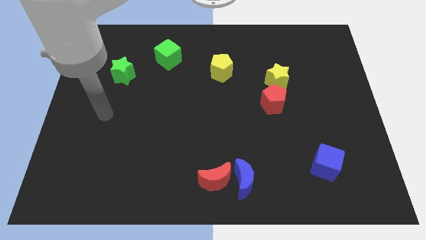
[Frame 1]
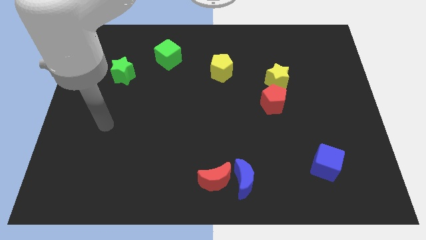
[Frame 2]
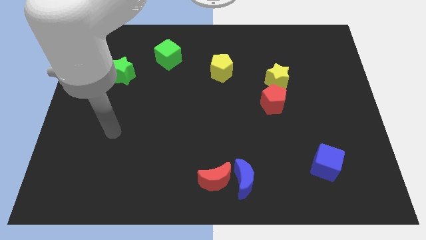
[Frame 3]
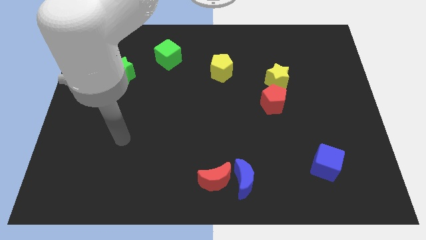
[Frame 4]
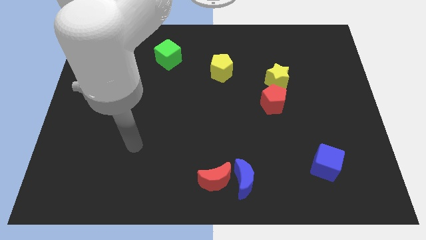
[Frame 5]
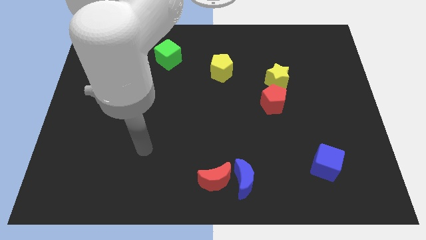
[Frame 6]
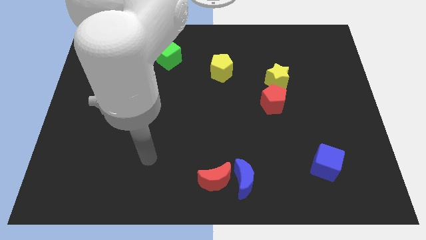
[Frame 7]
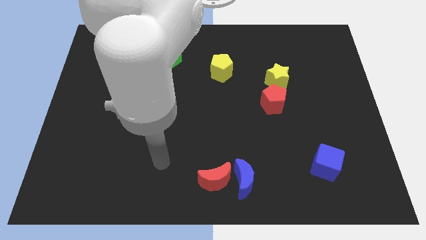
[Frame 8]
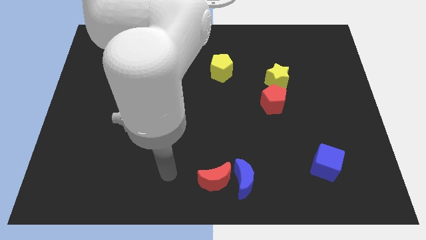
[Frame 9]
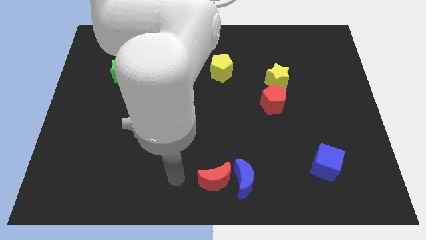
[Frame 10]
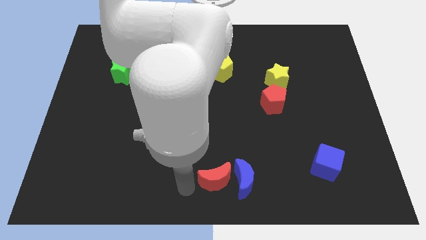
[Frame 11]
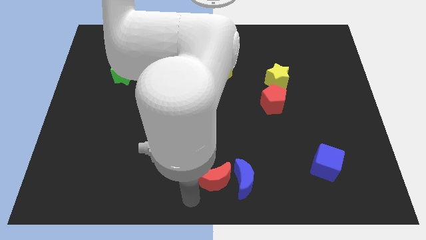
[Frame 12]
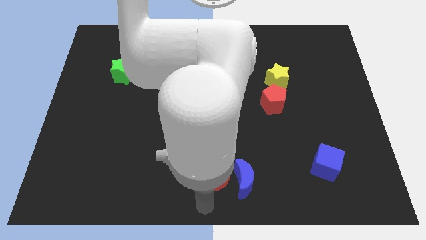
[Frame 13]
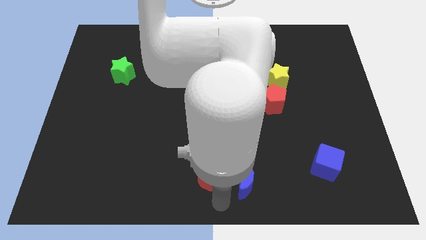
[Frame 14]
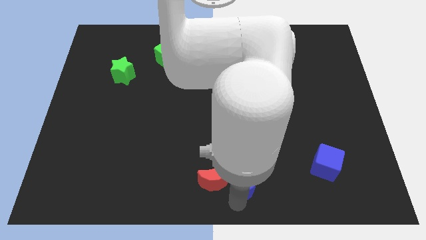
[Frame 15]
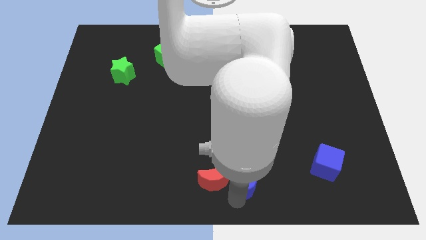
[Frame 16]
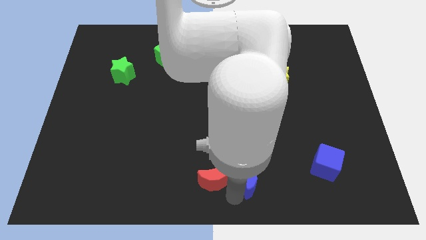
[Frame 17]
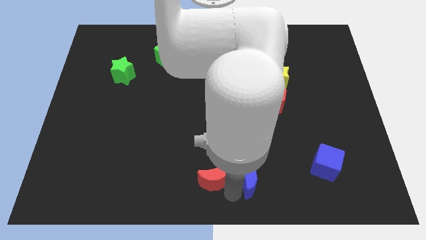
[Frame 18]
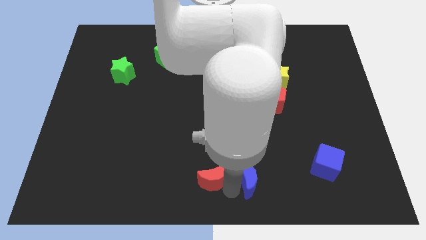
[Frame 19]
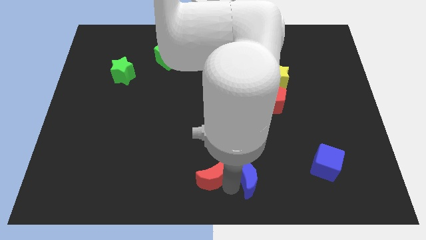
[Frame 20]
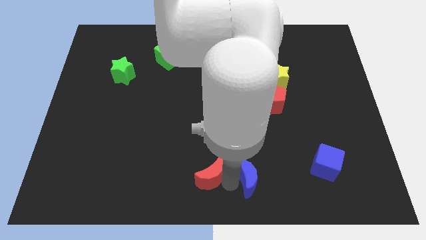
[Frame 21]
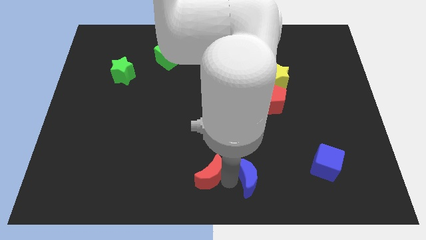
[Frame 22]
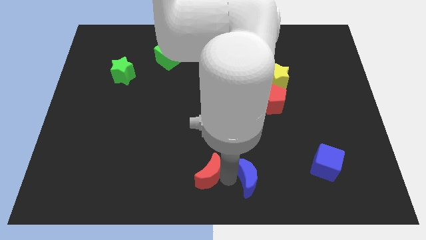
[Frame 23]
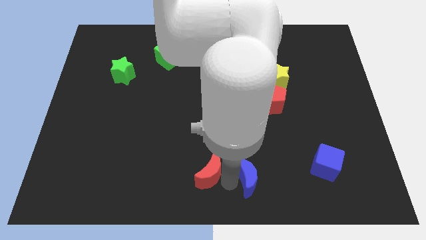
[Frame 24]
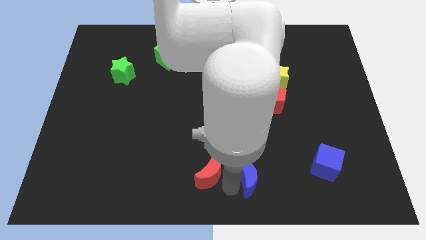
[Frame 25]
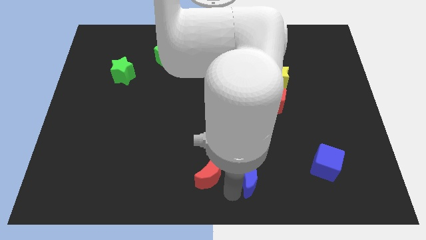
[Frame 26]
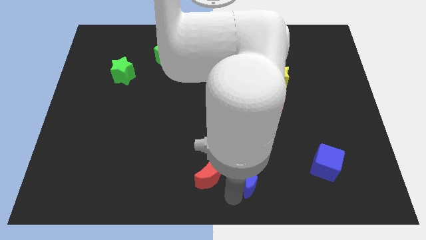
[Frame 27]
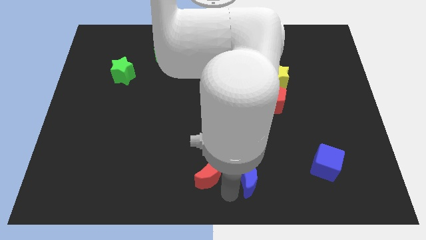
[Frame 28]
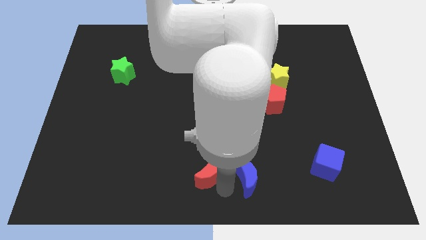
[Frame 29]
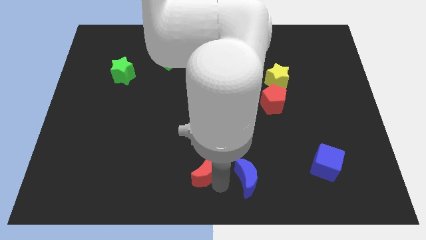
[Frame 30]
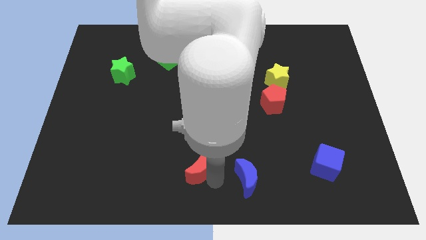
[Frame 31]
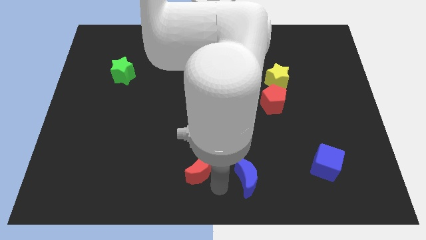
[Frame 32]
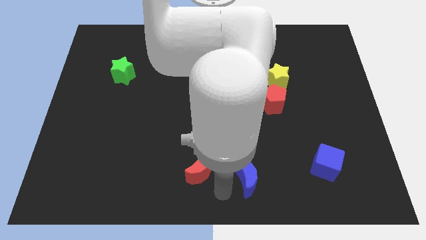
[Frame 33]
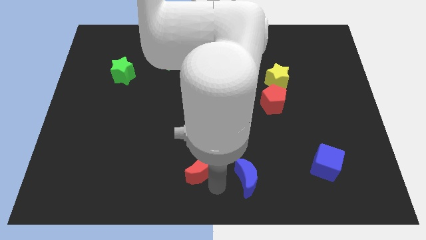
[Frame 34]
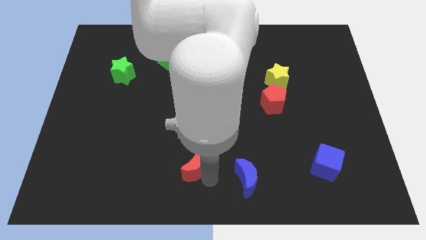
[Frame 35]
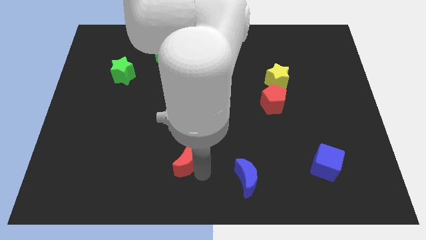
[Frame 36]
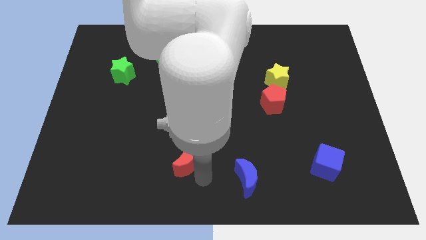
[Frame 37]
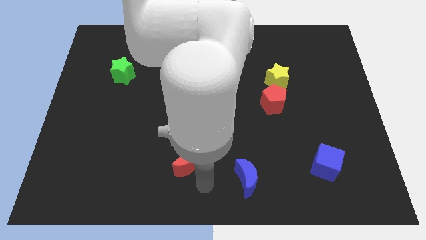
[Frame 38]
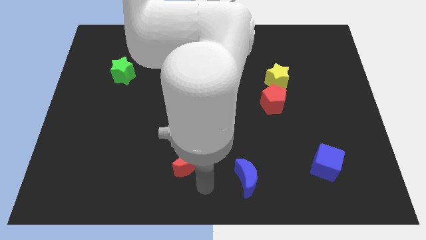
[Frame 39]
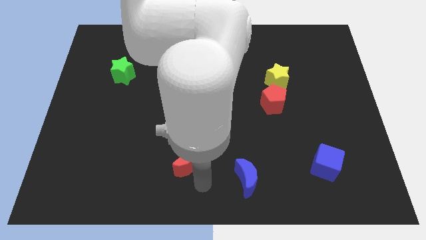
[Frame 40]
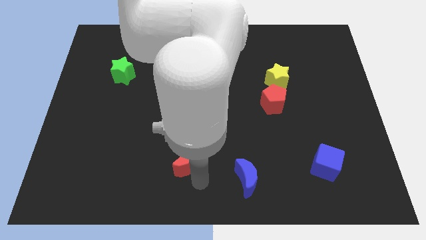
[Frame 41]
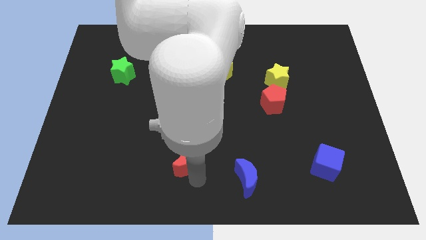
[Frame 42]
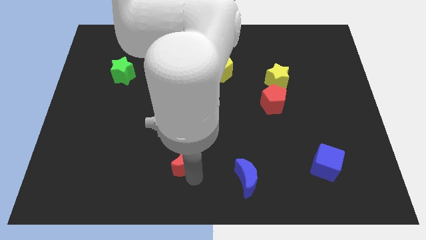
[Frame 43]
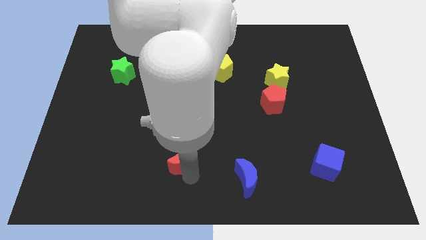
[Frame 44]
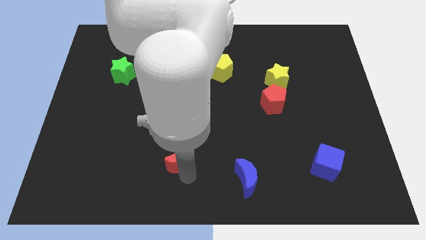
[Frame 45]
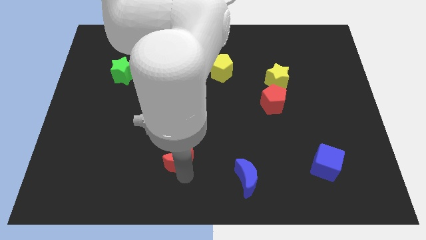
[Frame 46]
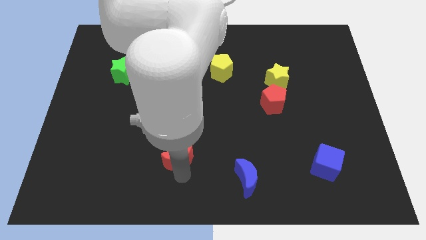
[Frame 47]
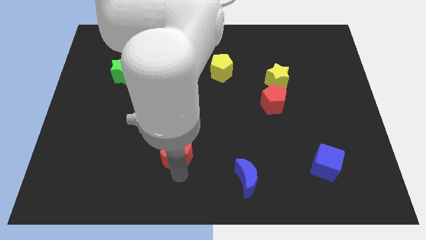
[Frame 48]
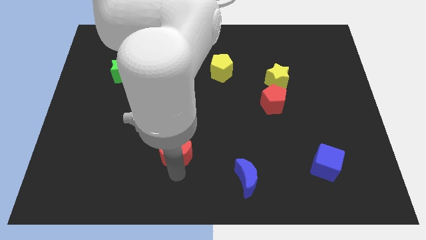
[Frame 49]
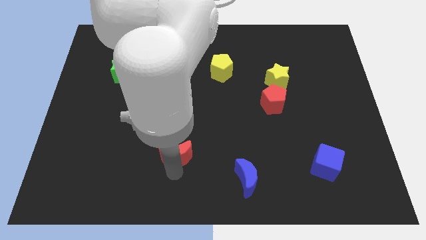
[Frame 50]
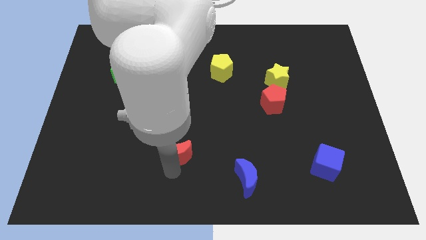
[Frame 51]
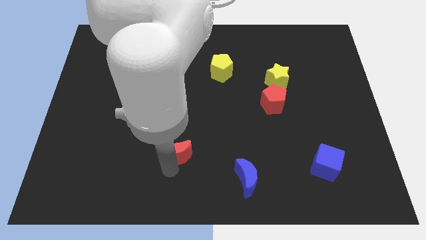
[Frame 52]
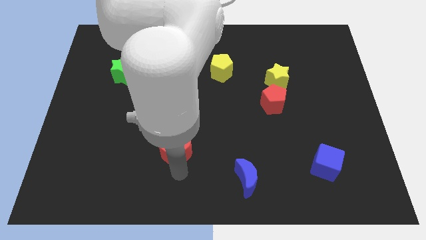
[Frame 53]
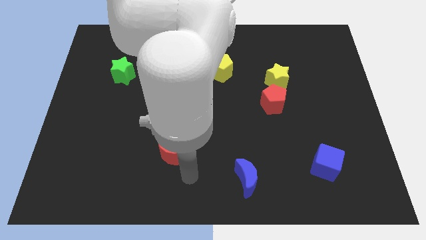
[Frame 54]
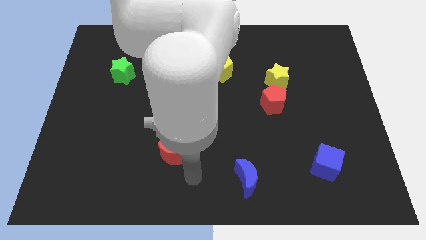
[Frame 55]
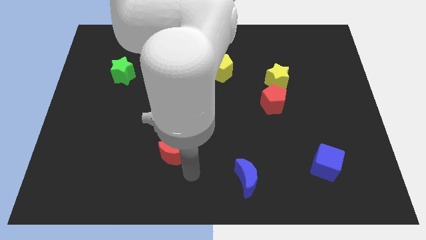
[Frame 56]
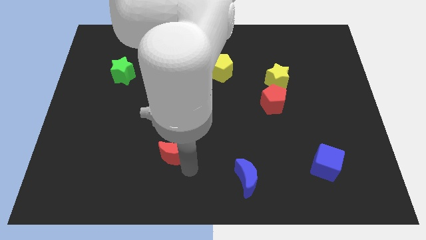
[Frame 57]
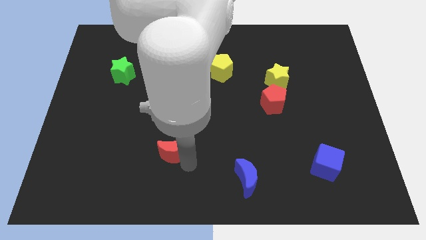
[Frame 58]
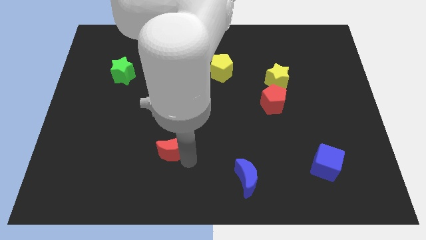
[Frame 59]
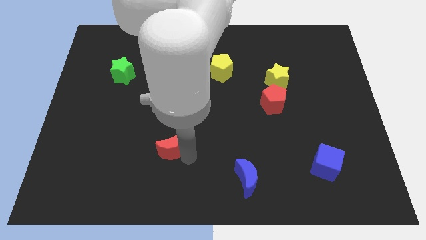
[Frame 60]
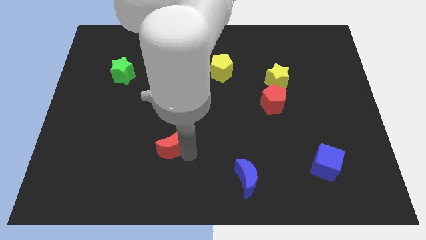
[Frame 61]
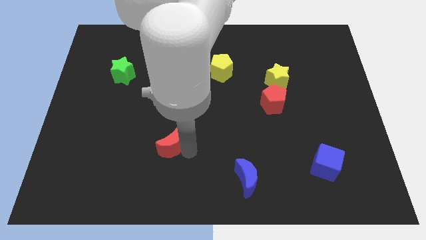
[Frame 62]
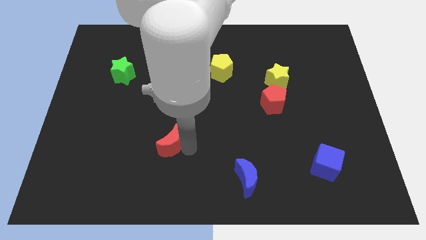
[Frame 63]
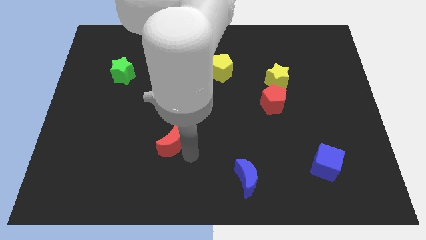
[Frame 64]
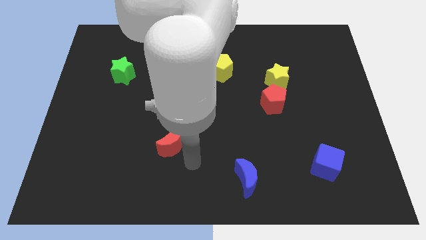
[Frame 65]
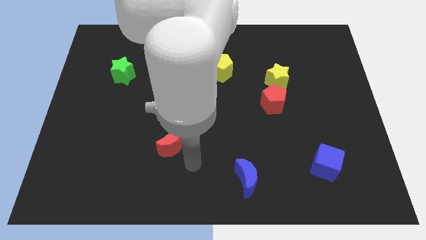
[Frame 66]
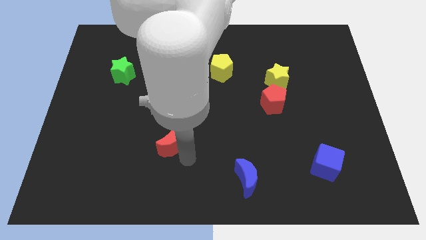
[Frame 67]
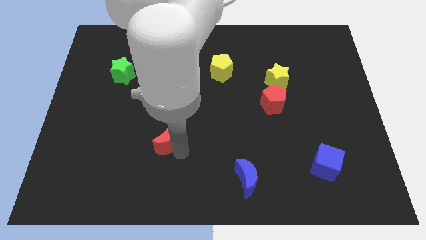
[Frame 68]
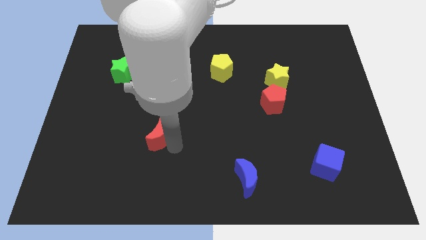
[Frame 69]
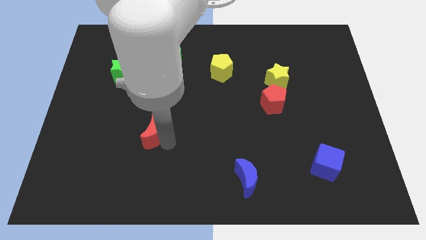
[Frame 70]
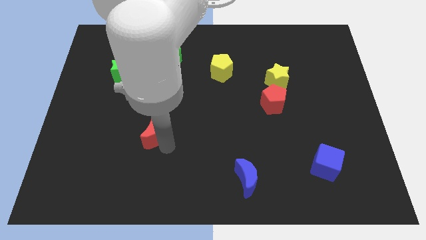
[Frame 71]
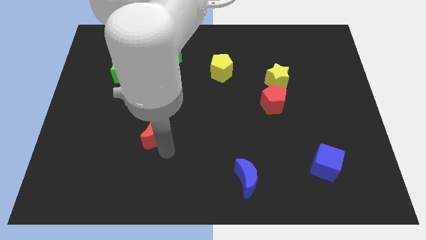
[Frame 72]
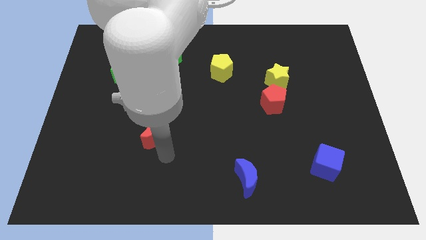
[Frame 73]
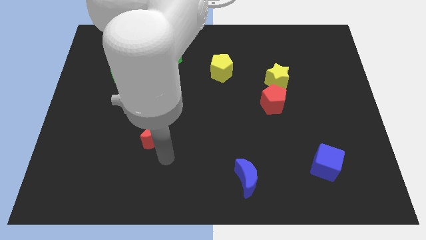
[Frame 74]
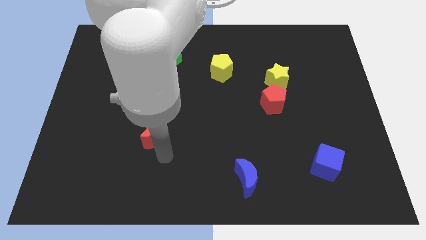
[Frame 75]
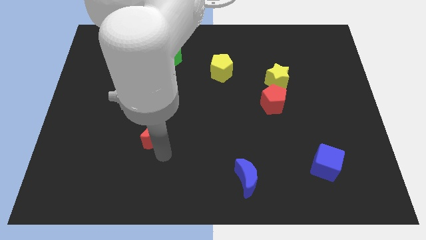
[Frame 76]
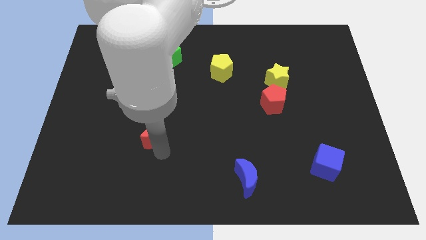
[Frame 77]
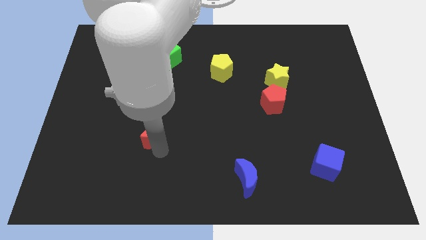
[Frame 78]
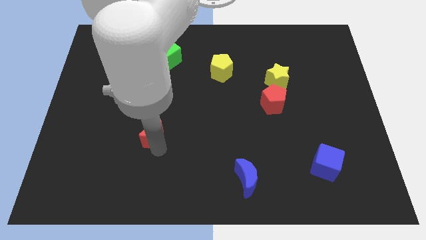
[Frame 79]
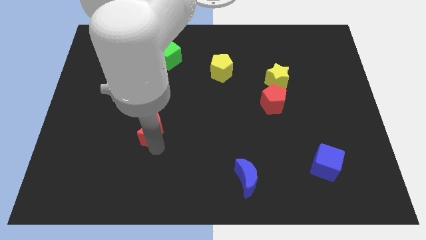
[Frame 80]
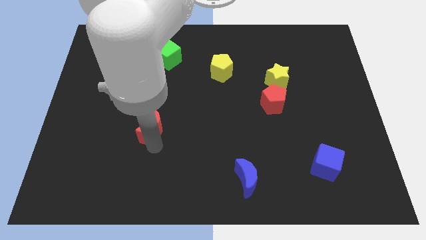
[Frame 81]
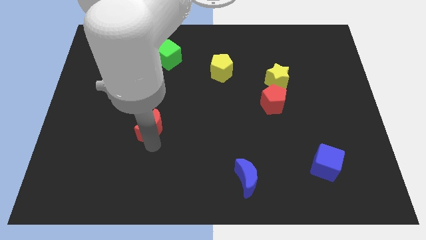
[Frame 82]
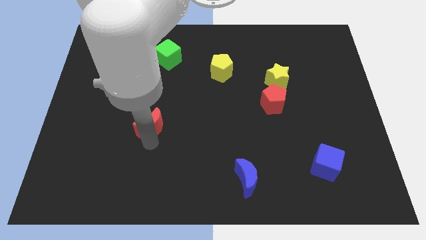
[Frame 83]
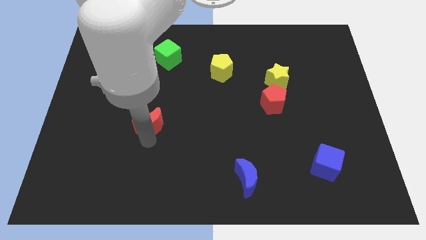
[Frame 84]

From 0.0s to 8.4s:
slide the red moon up and to the left diagonally

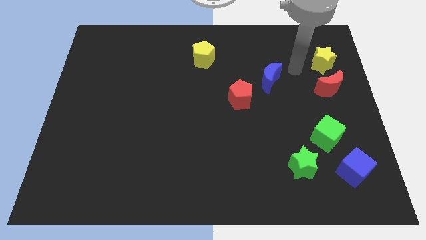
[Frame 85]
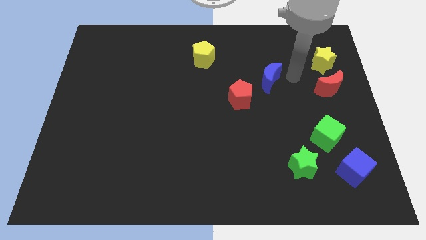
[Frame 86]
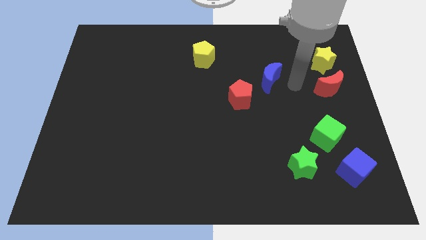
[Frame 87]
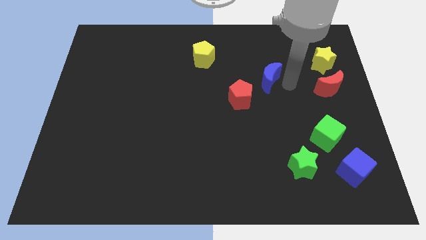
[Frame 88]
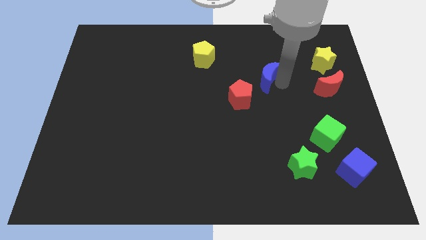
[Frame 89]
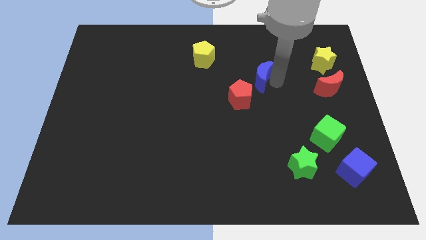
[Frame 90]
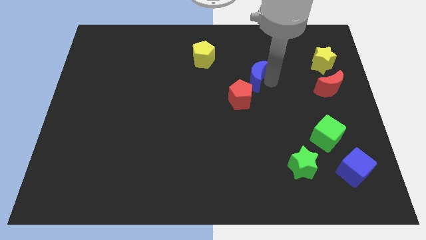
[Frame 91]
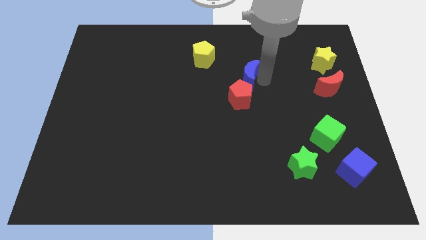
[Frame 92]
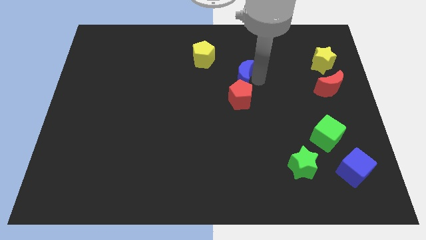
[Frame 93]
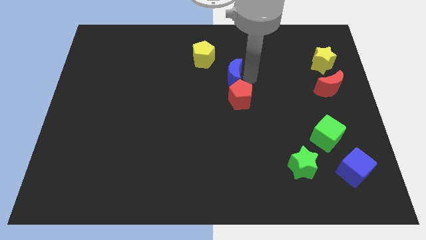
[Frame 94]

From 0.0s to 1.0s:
slide the blue moon a little left
